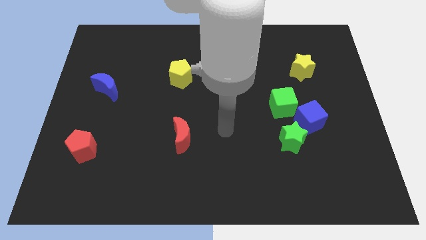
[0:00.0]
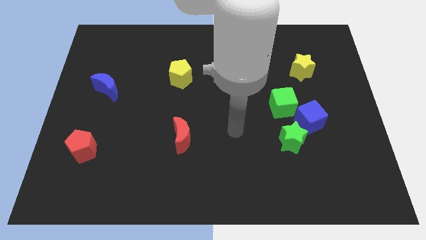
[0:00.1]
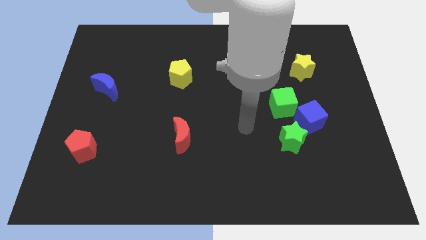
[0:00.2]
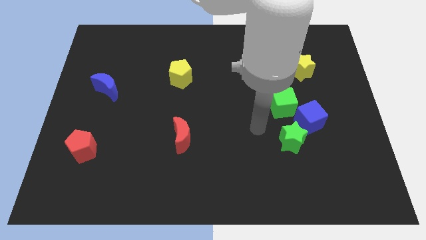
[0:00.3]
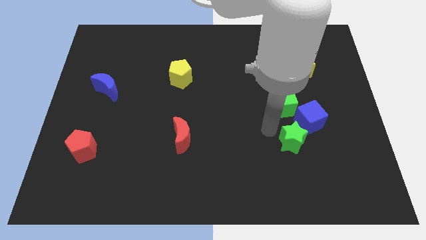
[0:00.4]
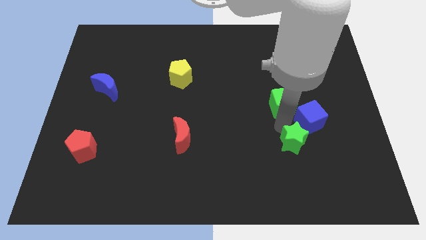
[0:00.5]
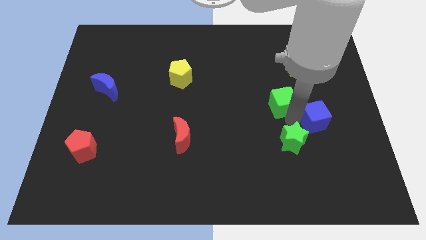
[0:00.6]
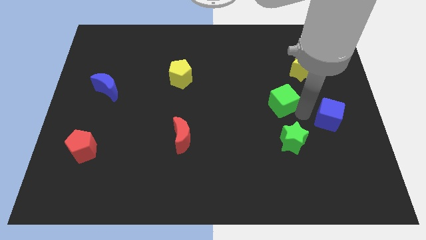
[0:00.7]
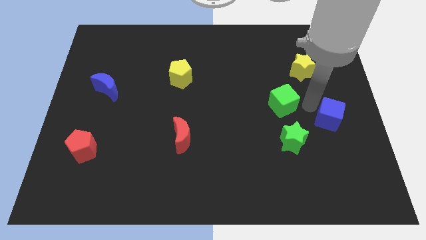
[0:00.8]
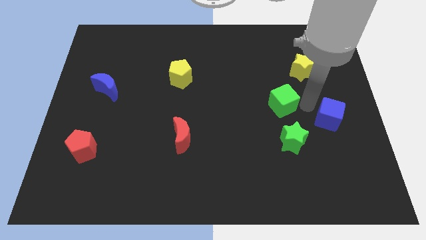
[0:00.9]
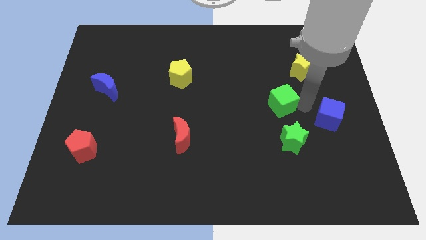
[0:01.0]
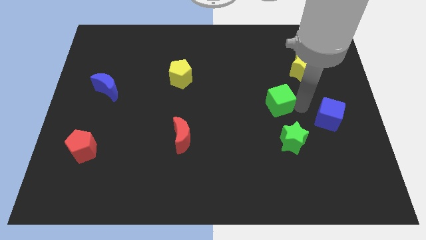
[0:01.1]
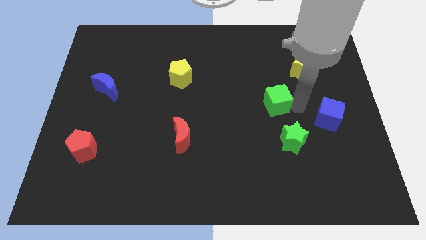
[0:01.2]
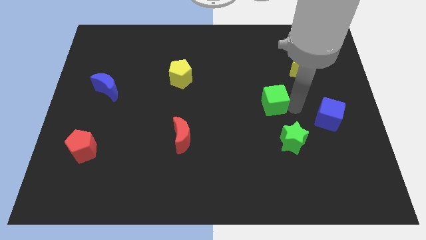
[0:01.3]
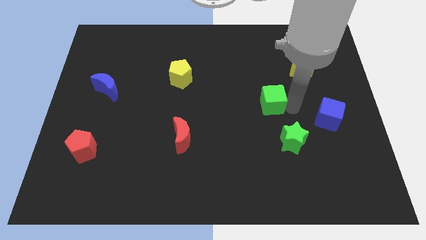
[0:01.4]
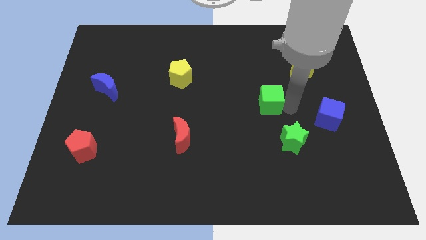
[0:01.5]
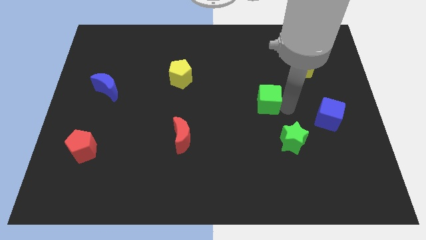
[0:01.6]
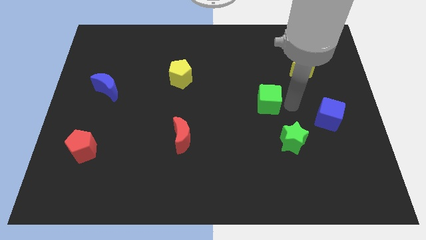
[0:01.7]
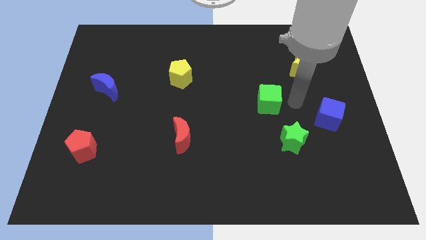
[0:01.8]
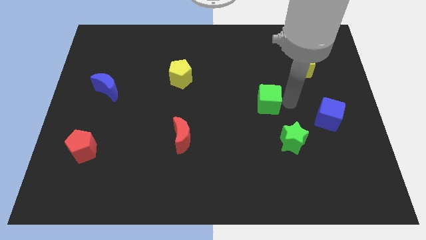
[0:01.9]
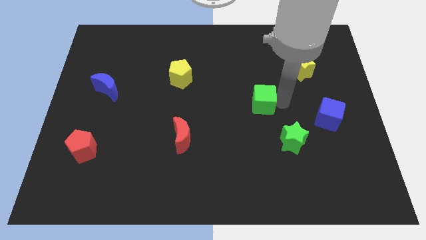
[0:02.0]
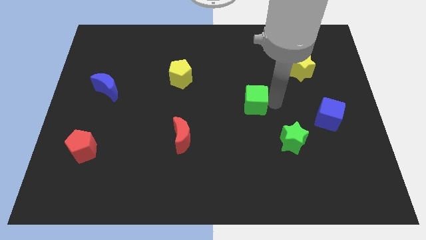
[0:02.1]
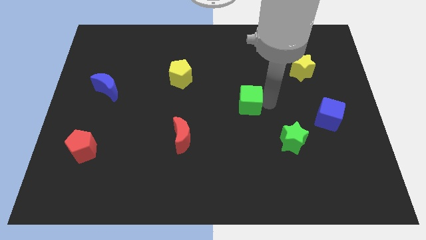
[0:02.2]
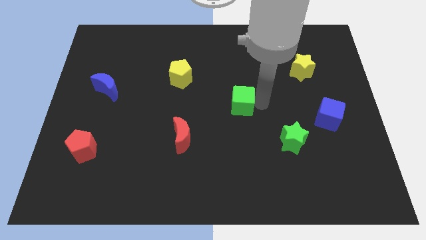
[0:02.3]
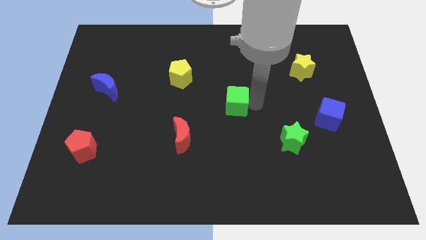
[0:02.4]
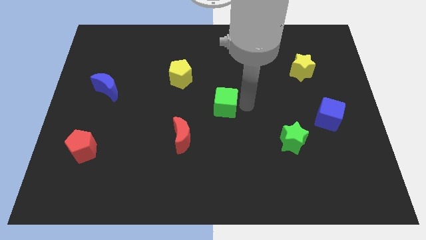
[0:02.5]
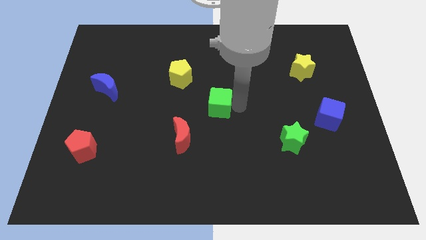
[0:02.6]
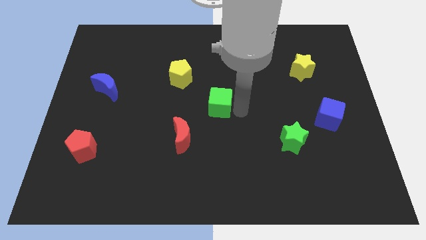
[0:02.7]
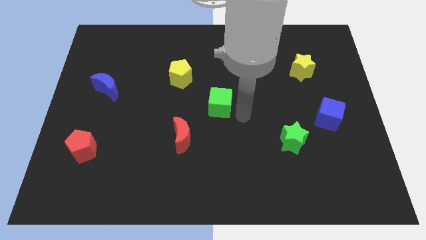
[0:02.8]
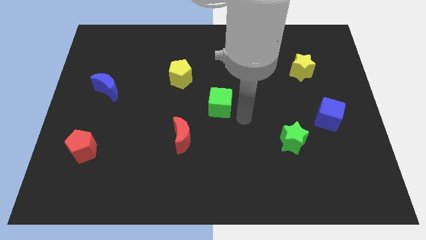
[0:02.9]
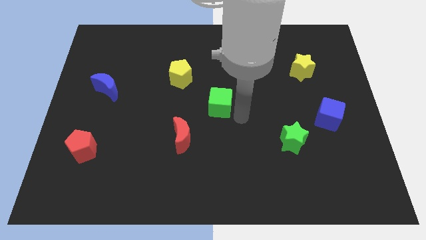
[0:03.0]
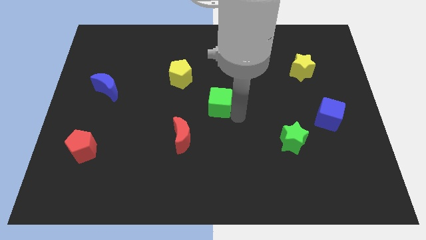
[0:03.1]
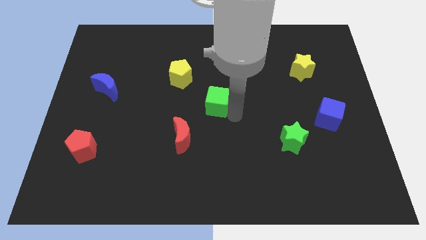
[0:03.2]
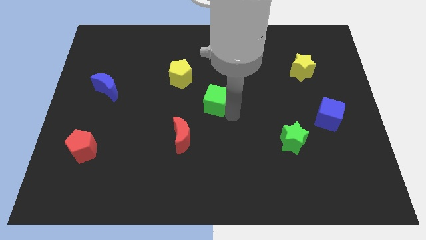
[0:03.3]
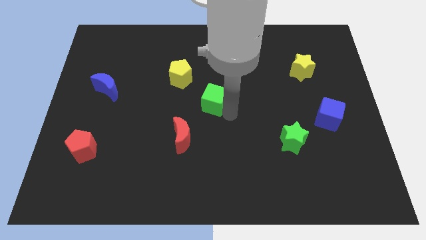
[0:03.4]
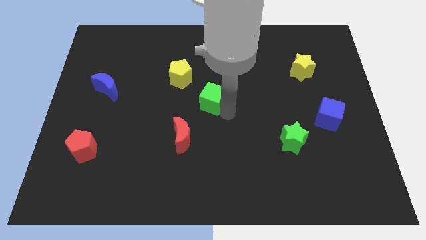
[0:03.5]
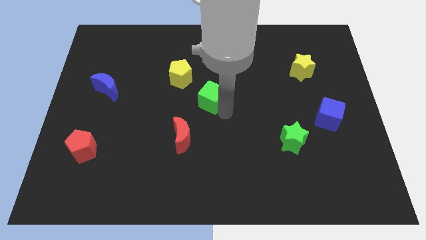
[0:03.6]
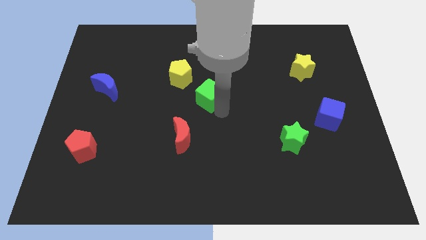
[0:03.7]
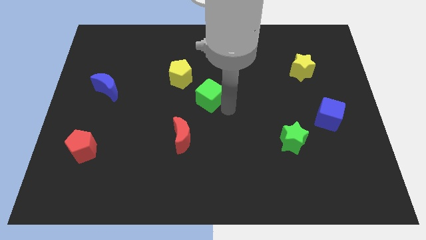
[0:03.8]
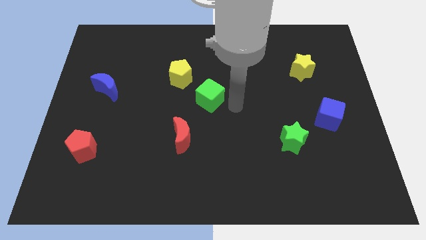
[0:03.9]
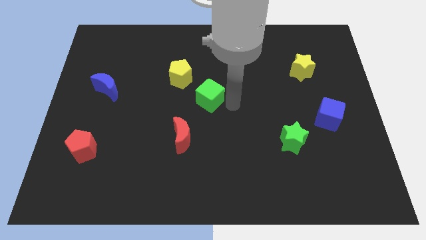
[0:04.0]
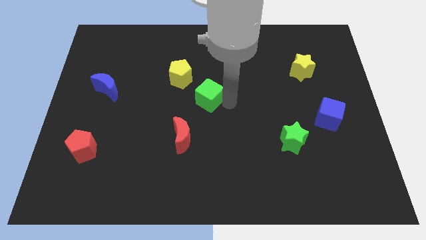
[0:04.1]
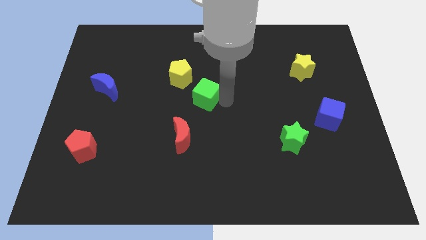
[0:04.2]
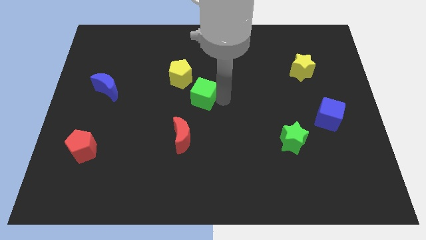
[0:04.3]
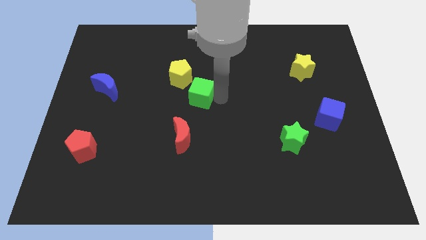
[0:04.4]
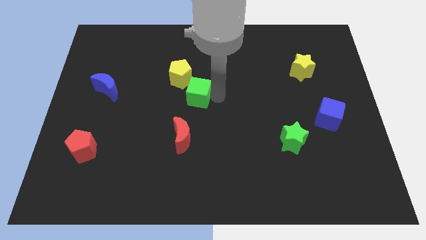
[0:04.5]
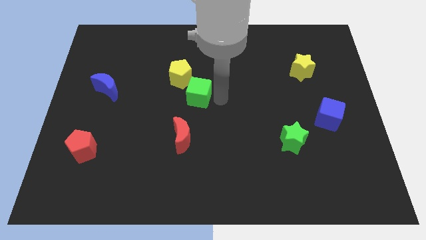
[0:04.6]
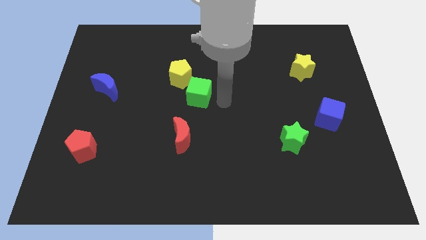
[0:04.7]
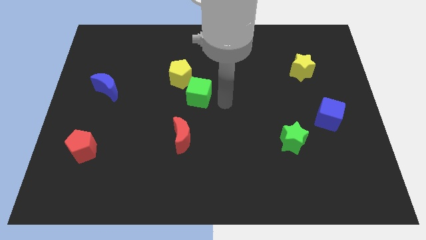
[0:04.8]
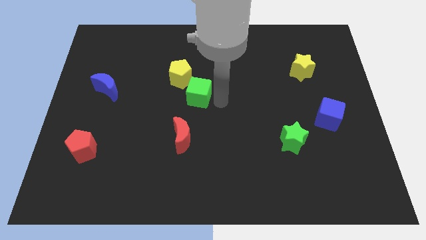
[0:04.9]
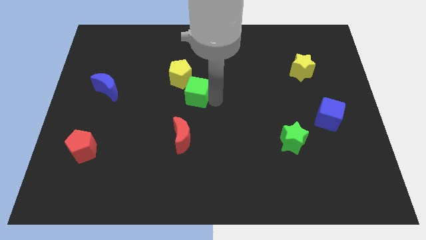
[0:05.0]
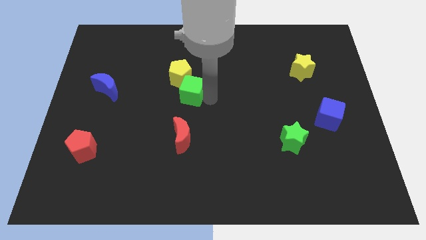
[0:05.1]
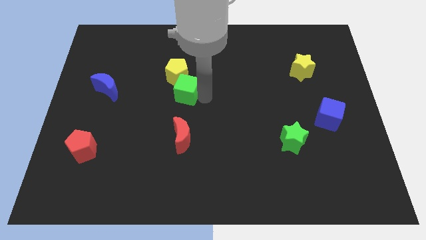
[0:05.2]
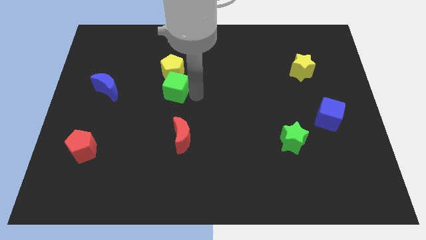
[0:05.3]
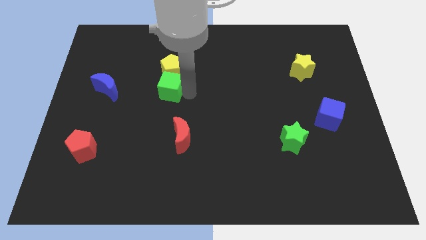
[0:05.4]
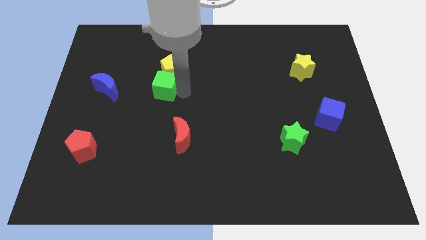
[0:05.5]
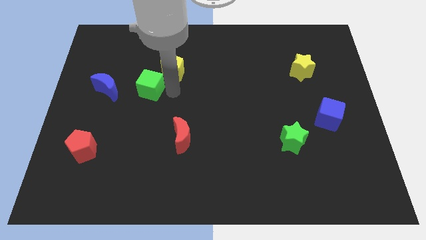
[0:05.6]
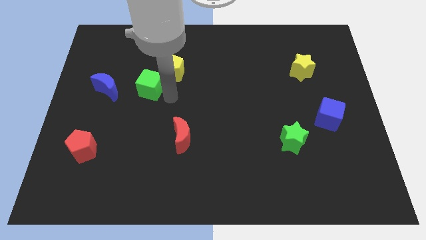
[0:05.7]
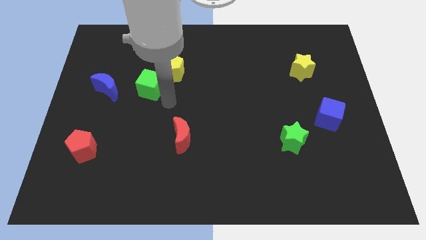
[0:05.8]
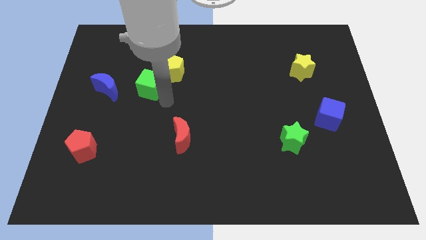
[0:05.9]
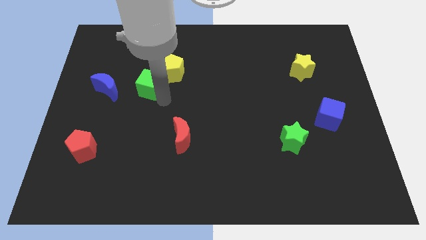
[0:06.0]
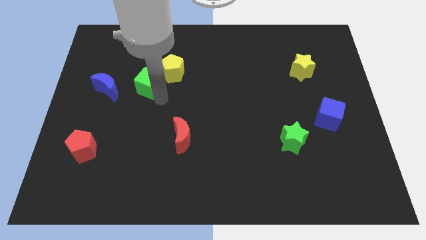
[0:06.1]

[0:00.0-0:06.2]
slide the green cube just left of the yellow pentagon
